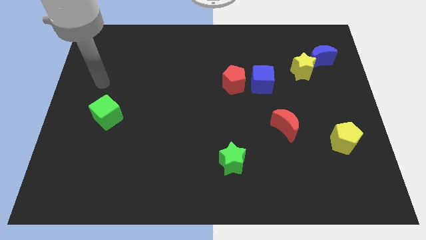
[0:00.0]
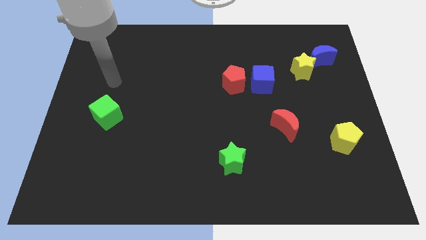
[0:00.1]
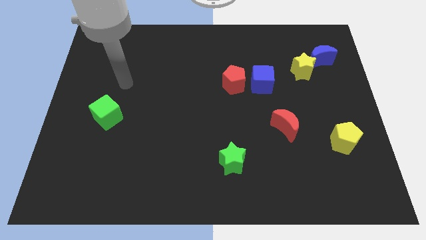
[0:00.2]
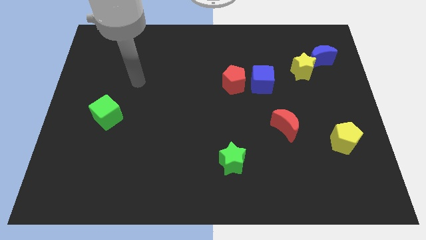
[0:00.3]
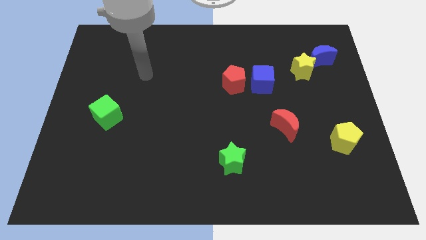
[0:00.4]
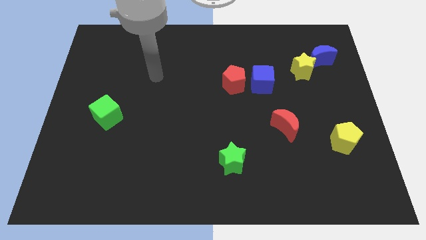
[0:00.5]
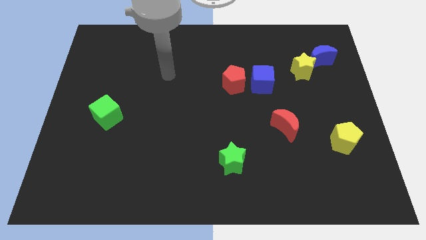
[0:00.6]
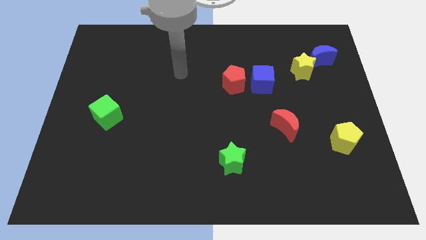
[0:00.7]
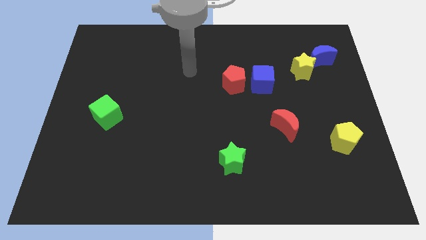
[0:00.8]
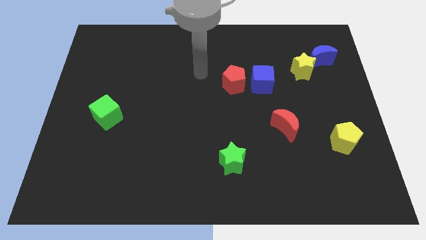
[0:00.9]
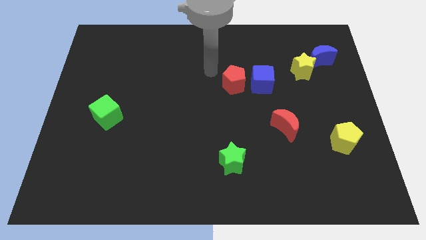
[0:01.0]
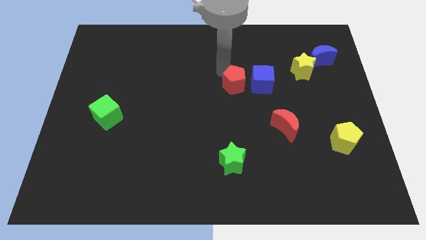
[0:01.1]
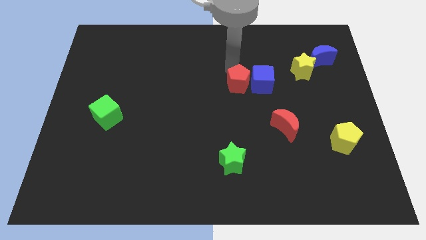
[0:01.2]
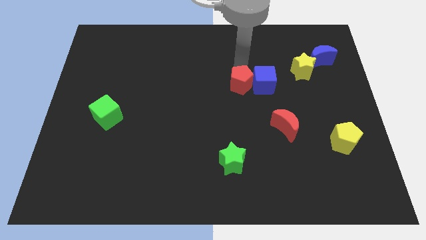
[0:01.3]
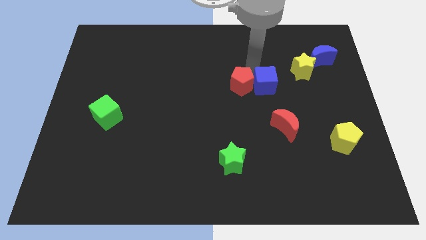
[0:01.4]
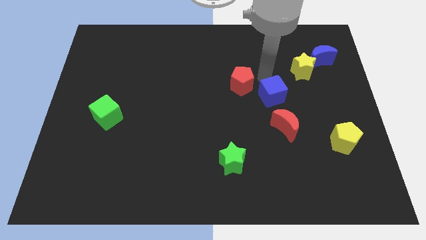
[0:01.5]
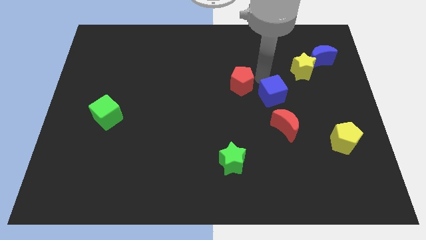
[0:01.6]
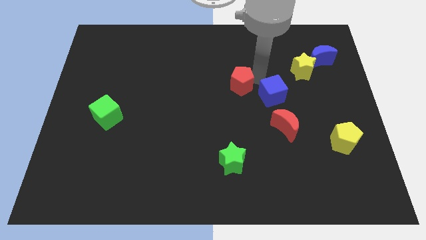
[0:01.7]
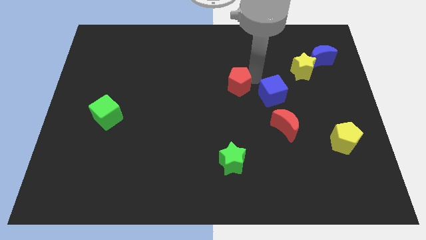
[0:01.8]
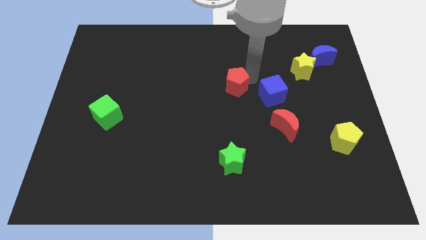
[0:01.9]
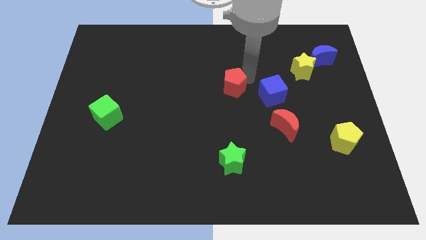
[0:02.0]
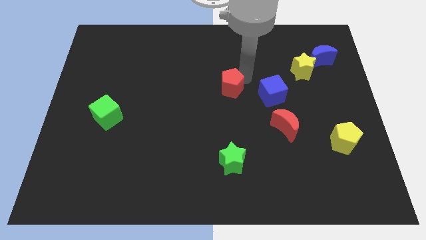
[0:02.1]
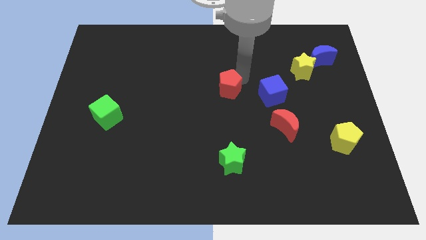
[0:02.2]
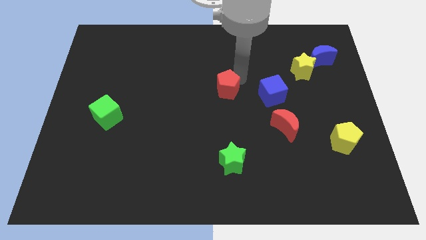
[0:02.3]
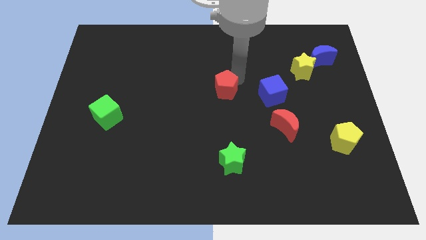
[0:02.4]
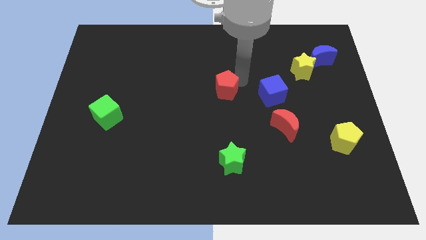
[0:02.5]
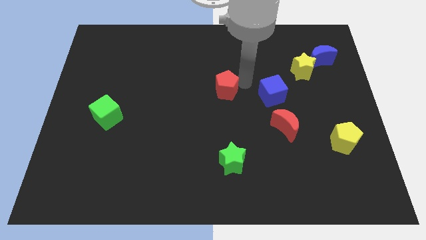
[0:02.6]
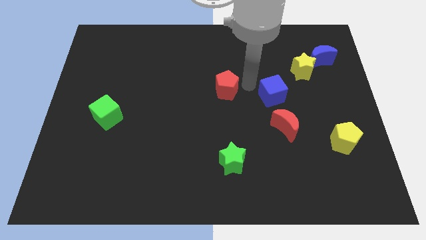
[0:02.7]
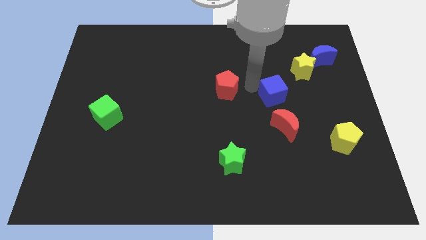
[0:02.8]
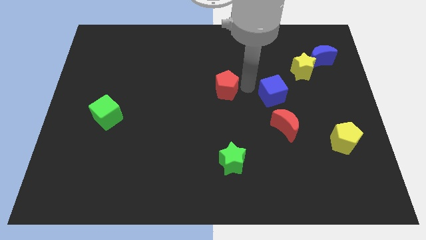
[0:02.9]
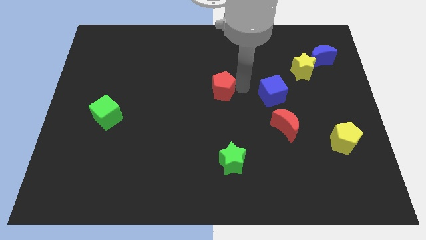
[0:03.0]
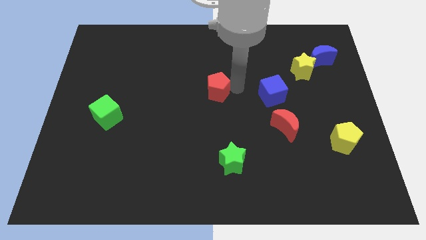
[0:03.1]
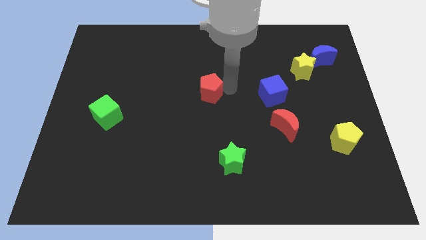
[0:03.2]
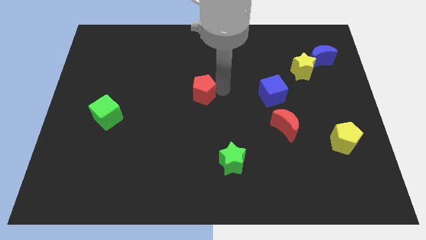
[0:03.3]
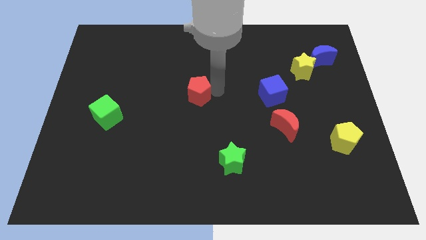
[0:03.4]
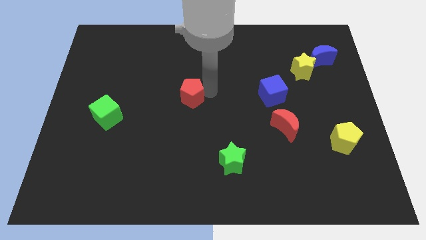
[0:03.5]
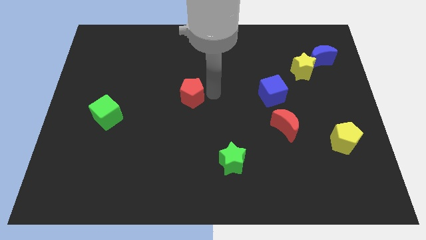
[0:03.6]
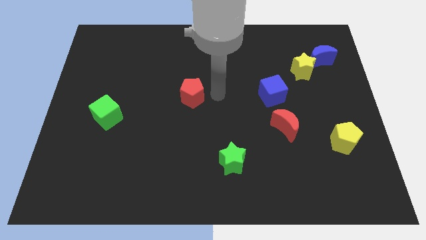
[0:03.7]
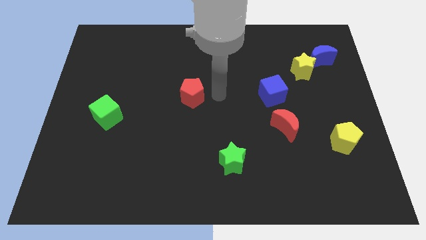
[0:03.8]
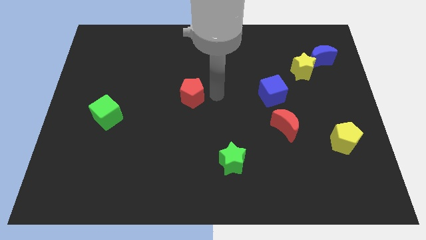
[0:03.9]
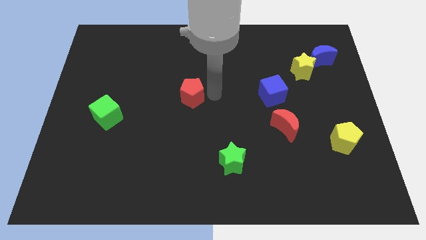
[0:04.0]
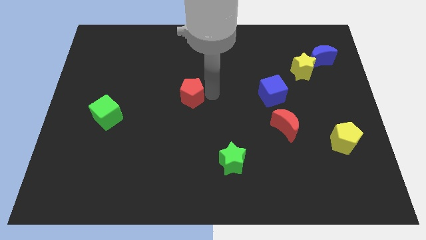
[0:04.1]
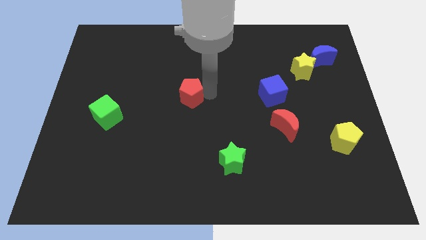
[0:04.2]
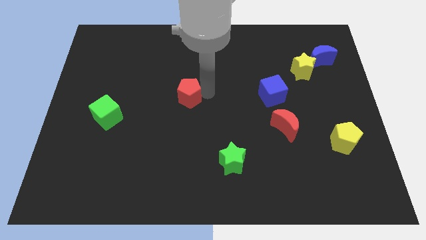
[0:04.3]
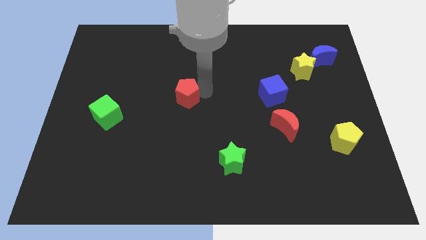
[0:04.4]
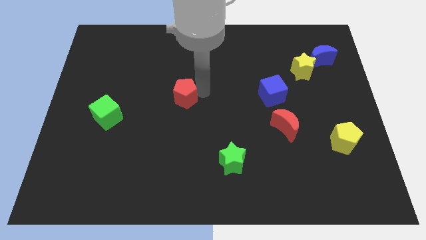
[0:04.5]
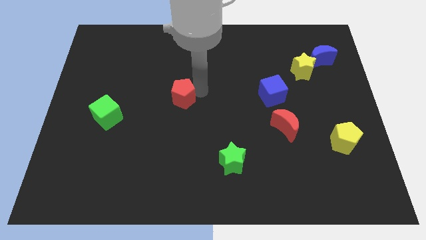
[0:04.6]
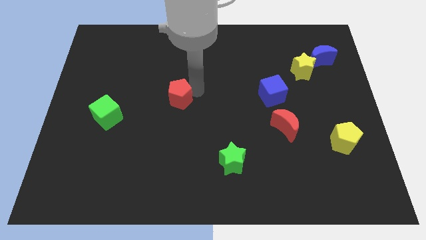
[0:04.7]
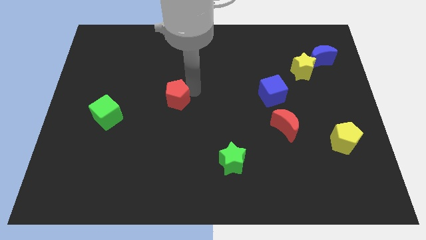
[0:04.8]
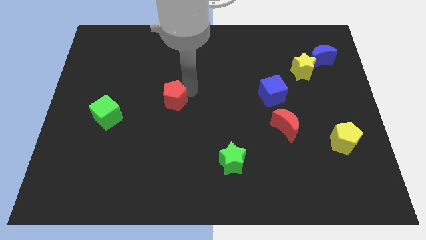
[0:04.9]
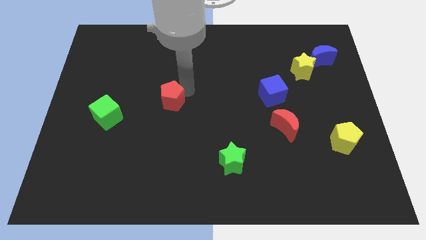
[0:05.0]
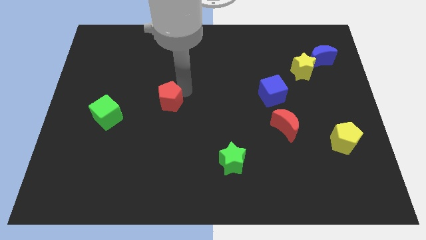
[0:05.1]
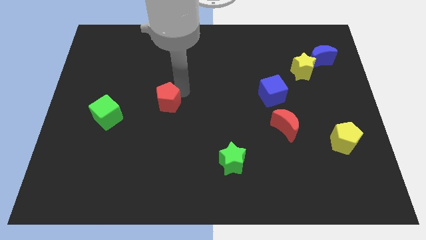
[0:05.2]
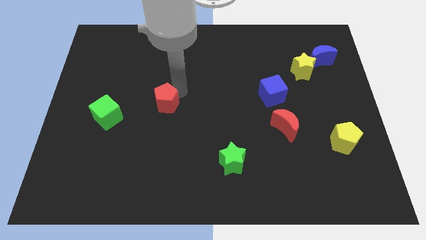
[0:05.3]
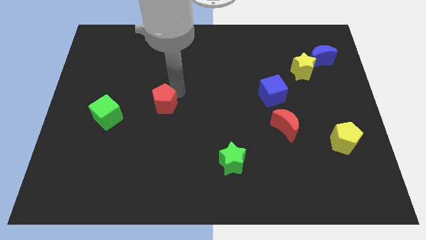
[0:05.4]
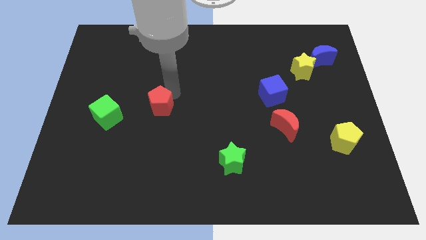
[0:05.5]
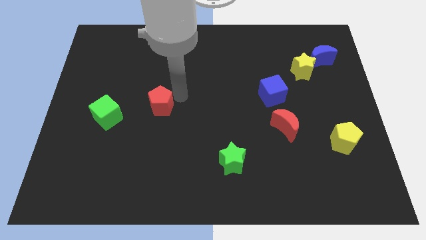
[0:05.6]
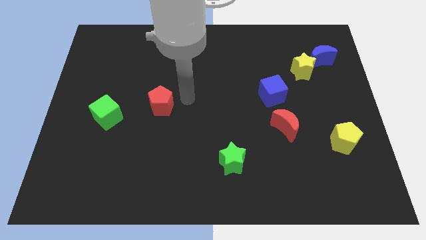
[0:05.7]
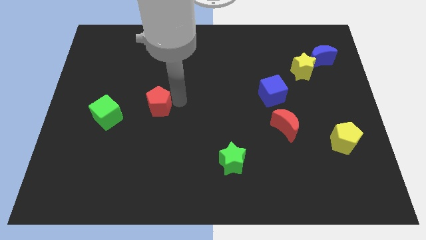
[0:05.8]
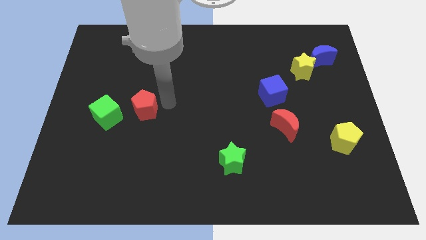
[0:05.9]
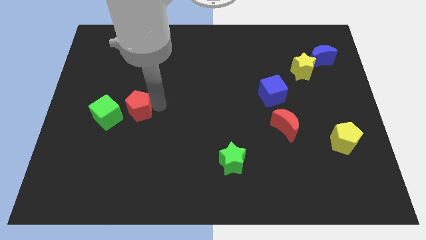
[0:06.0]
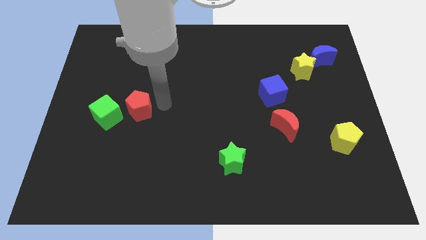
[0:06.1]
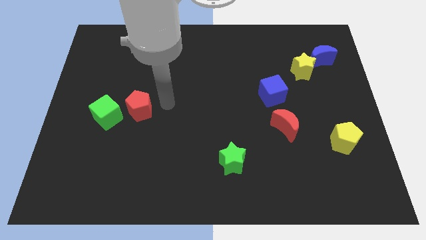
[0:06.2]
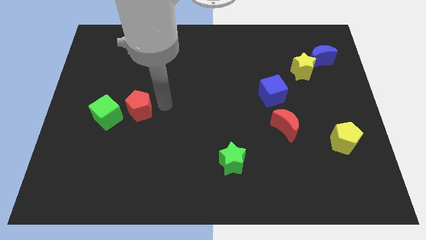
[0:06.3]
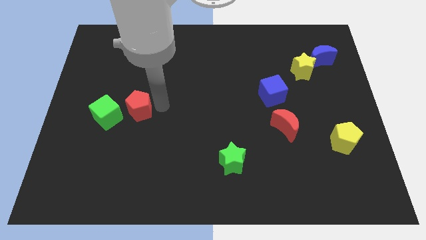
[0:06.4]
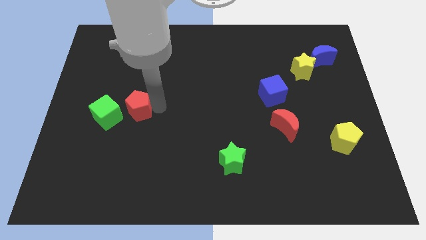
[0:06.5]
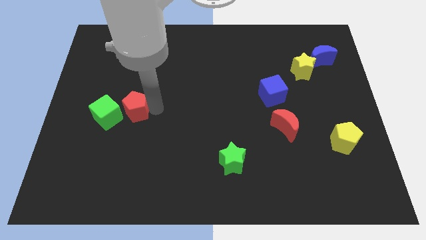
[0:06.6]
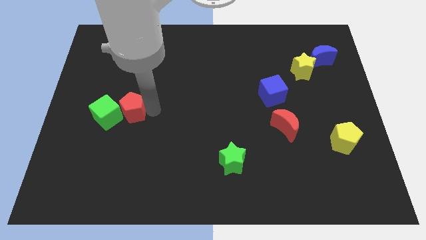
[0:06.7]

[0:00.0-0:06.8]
slide the red pentagon towards the green cube
